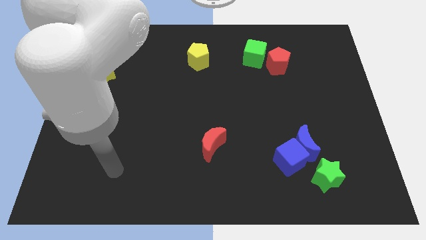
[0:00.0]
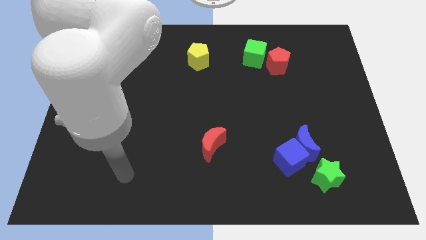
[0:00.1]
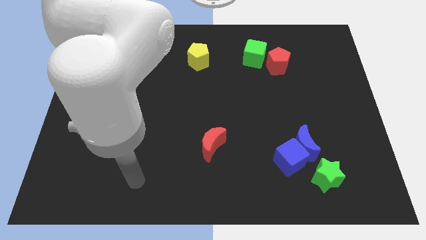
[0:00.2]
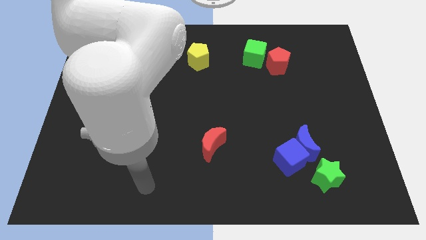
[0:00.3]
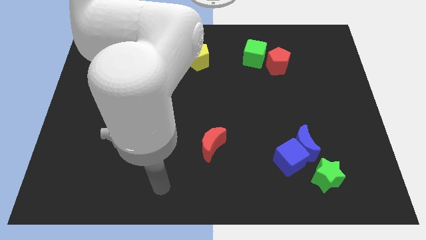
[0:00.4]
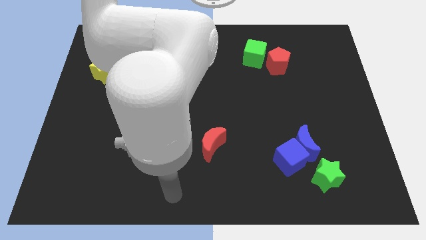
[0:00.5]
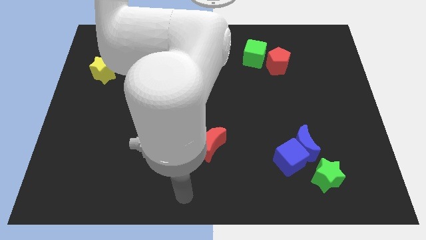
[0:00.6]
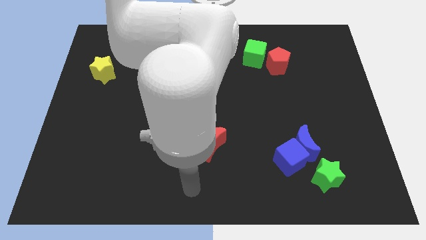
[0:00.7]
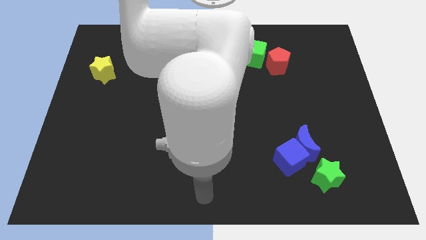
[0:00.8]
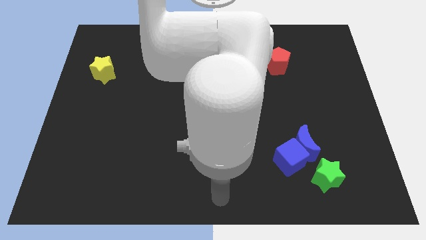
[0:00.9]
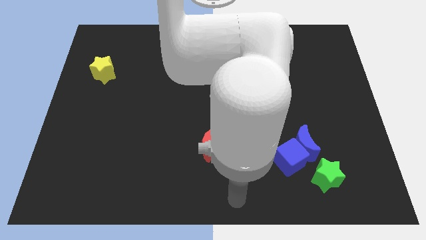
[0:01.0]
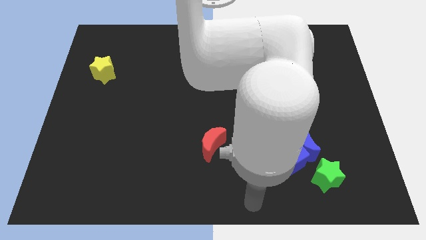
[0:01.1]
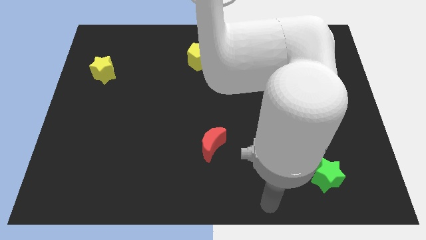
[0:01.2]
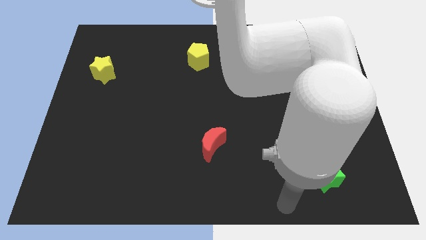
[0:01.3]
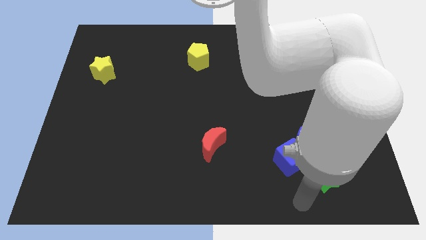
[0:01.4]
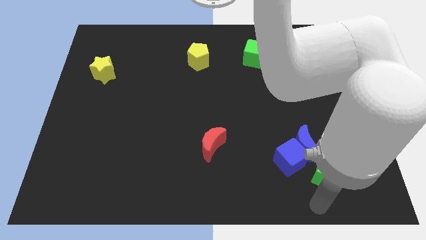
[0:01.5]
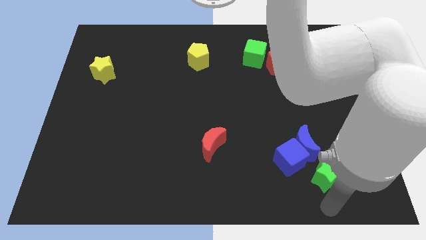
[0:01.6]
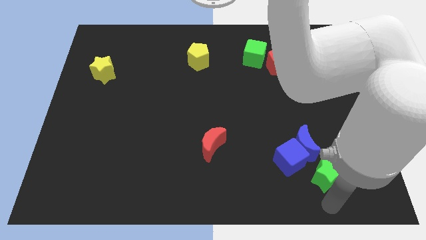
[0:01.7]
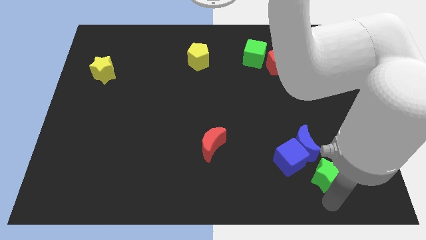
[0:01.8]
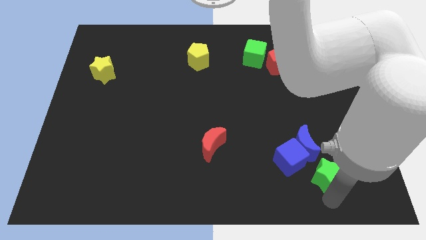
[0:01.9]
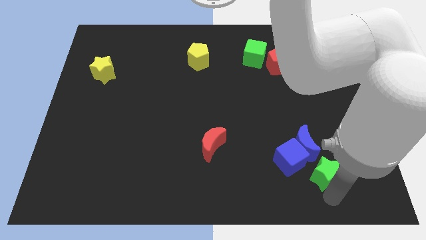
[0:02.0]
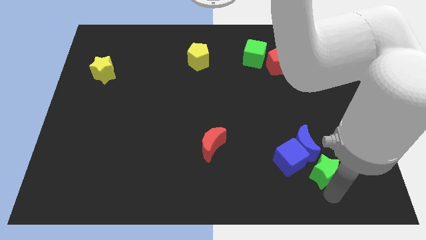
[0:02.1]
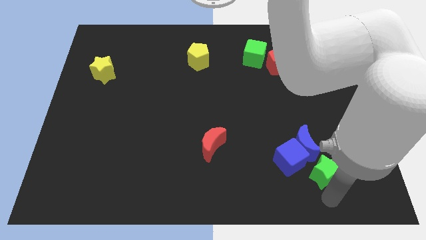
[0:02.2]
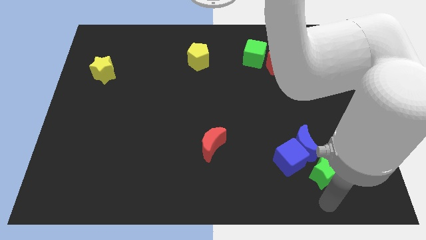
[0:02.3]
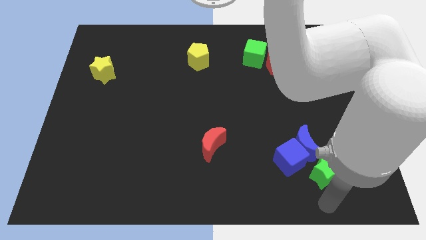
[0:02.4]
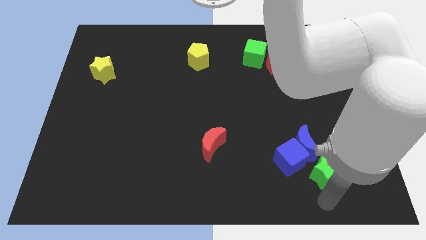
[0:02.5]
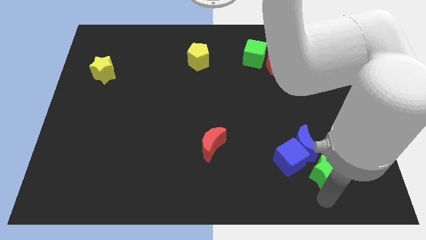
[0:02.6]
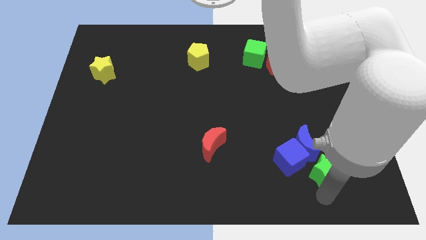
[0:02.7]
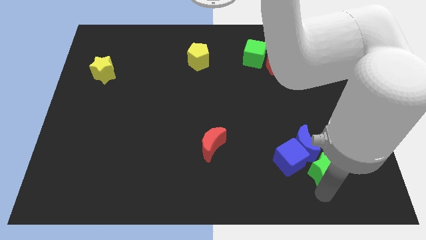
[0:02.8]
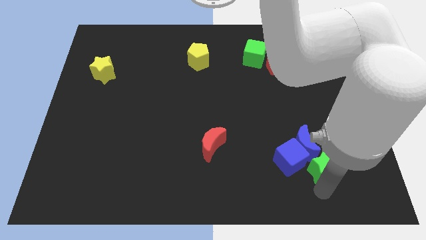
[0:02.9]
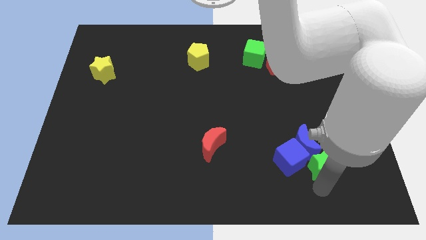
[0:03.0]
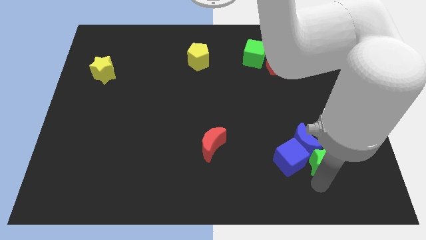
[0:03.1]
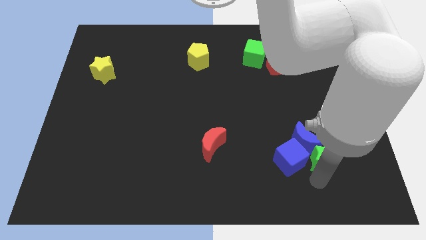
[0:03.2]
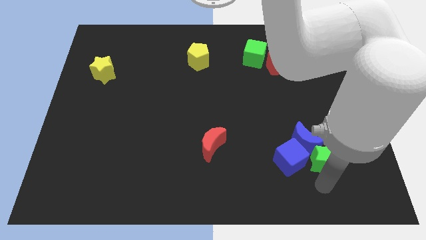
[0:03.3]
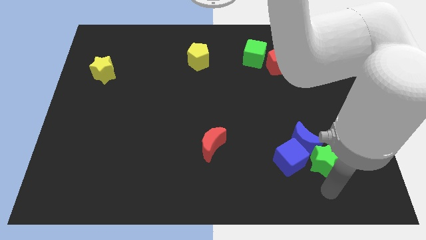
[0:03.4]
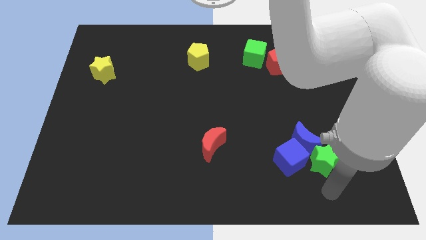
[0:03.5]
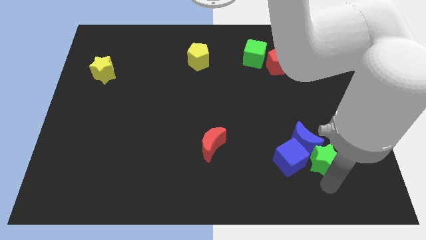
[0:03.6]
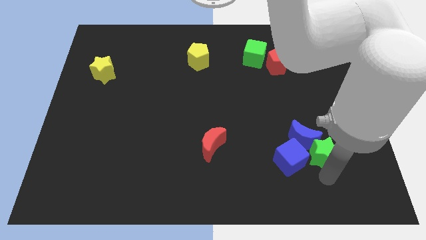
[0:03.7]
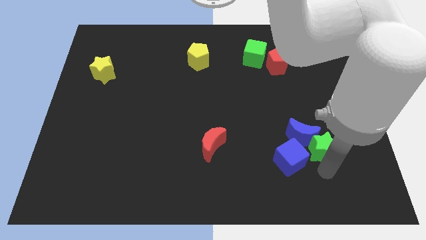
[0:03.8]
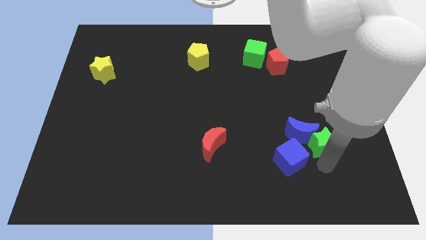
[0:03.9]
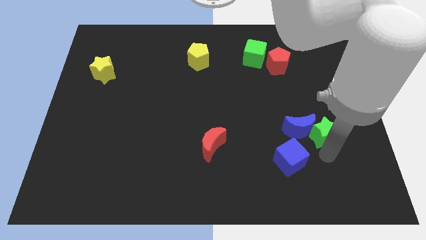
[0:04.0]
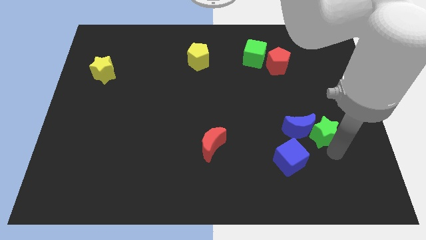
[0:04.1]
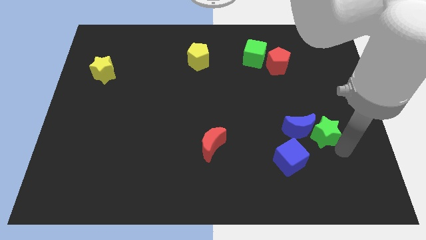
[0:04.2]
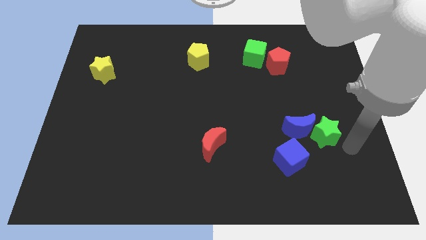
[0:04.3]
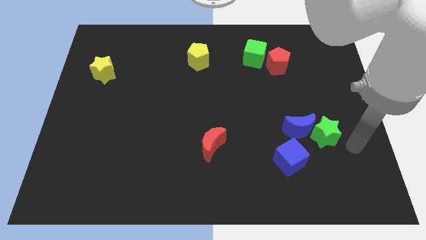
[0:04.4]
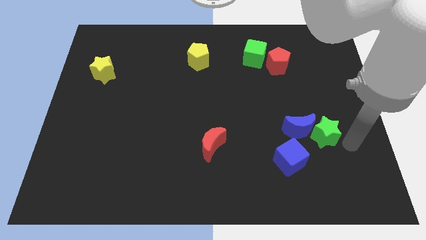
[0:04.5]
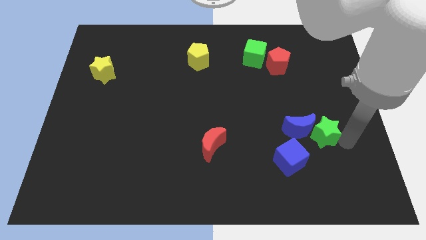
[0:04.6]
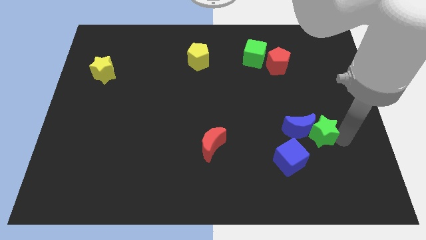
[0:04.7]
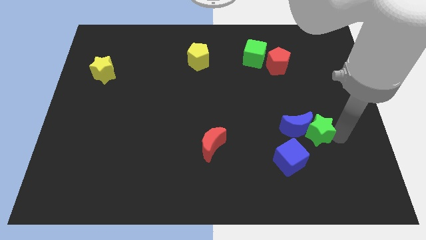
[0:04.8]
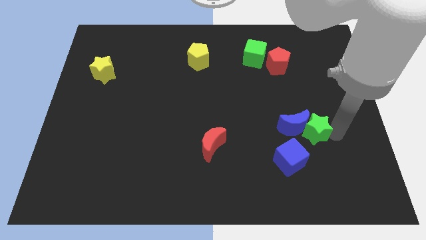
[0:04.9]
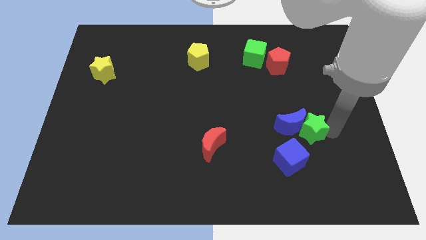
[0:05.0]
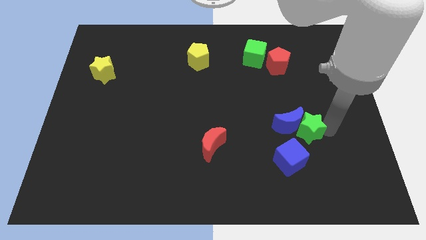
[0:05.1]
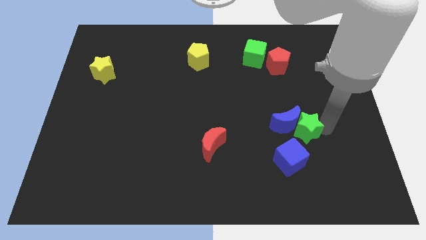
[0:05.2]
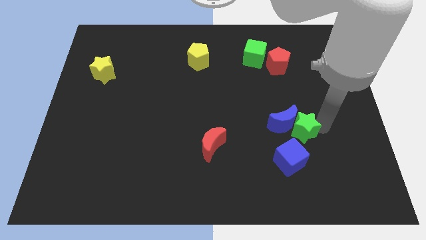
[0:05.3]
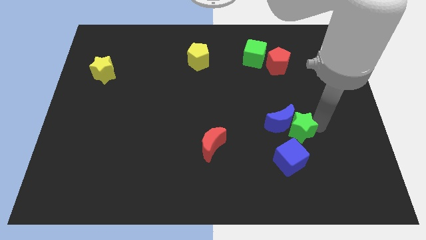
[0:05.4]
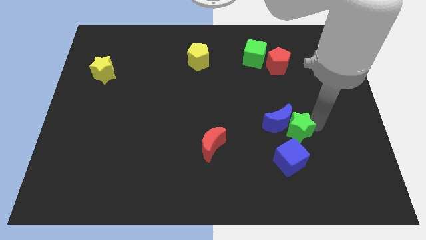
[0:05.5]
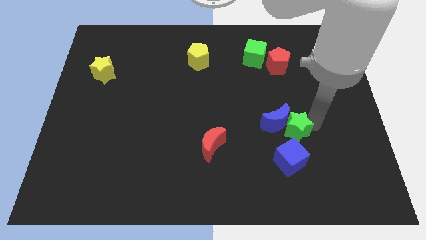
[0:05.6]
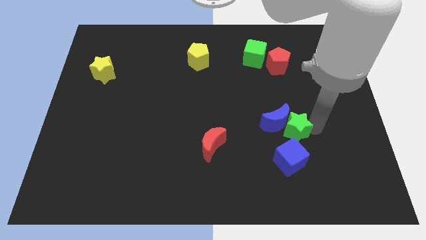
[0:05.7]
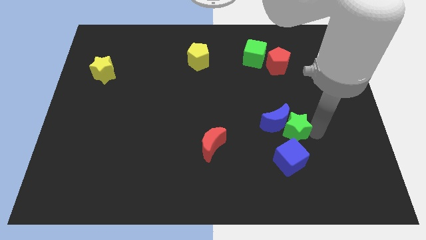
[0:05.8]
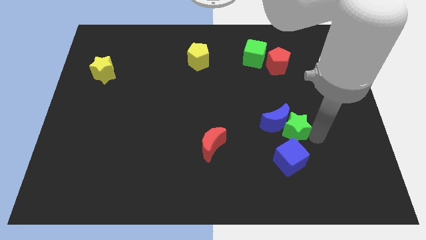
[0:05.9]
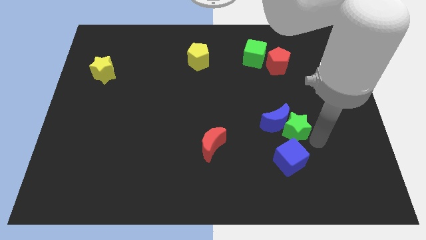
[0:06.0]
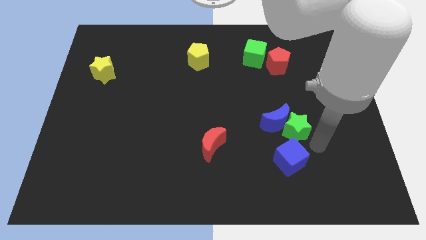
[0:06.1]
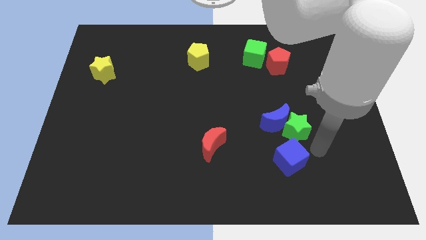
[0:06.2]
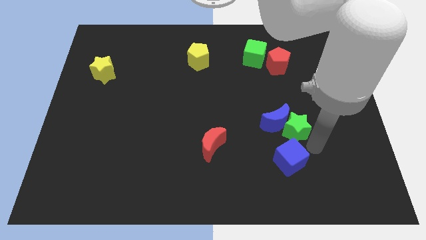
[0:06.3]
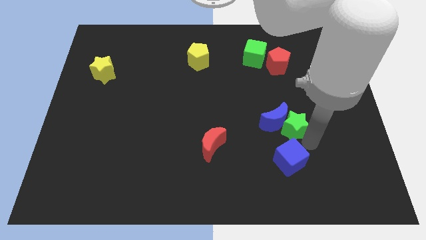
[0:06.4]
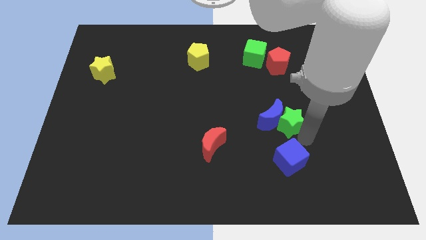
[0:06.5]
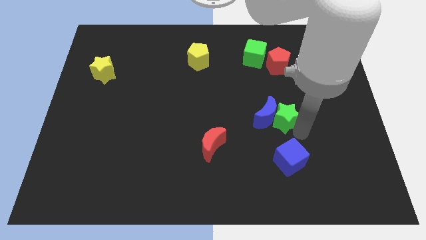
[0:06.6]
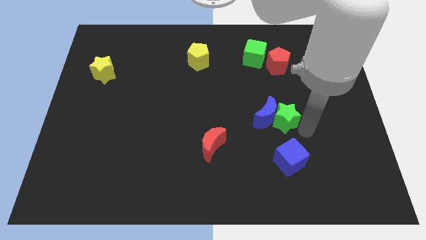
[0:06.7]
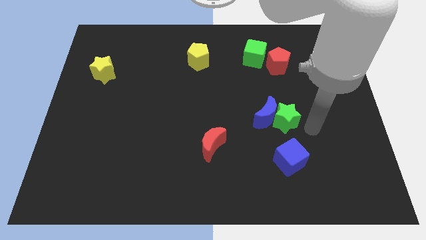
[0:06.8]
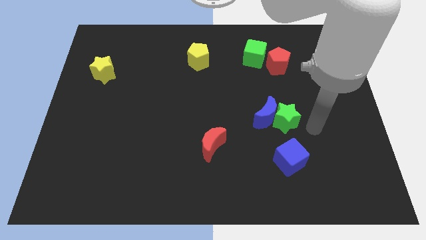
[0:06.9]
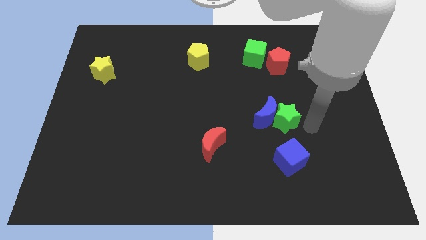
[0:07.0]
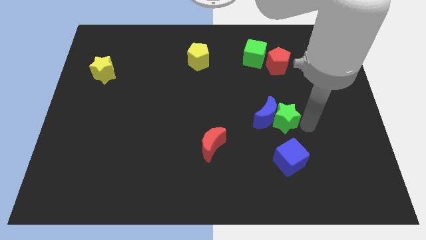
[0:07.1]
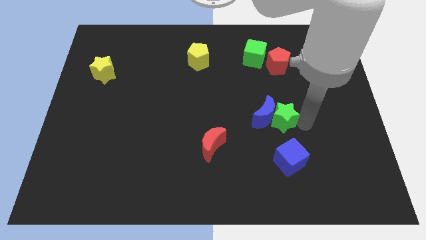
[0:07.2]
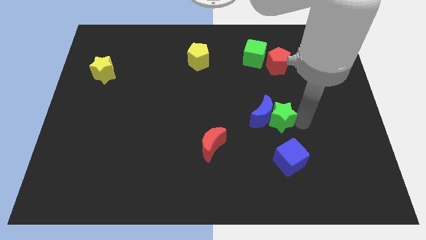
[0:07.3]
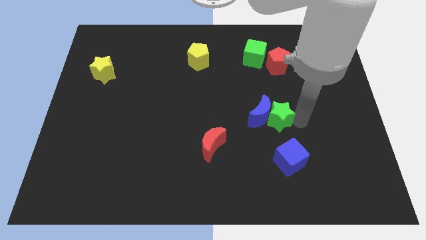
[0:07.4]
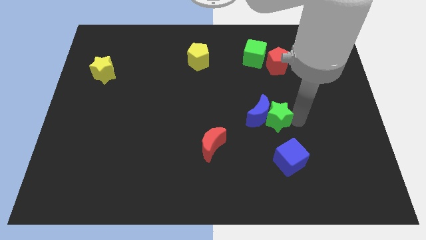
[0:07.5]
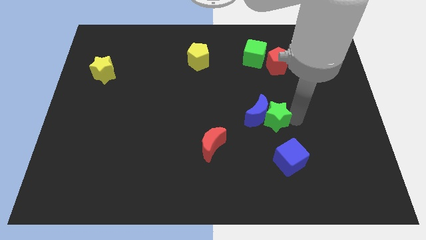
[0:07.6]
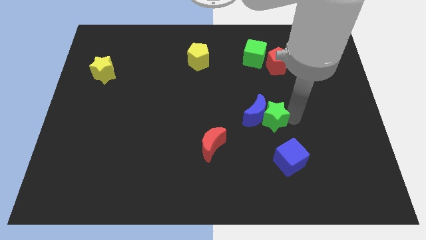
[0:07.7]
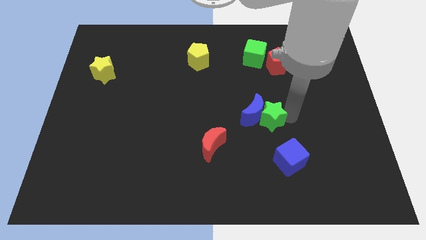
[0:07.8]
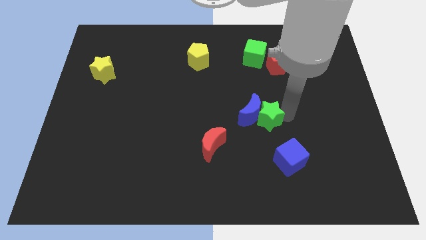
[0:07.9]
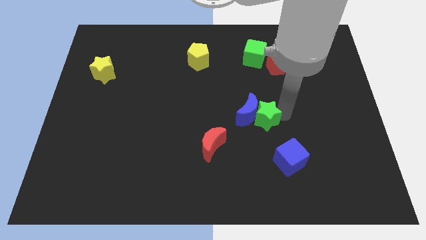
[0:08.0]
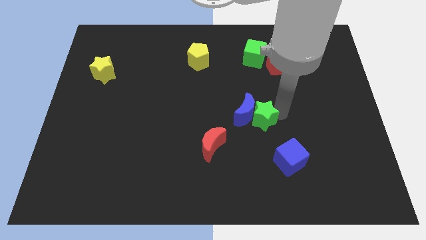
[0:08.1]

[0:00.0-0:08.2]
move the green star to the center
